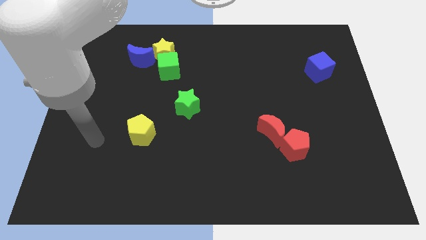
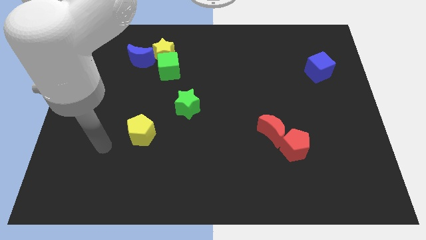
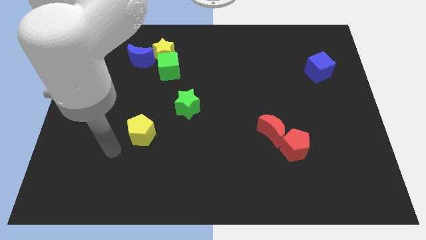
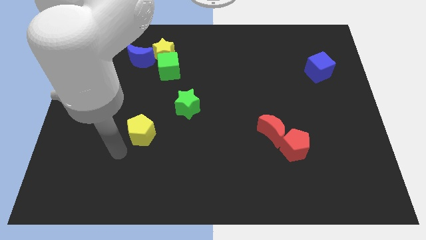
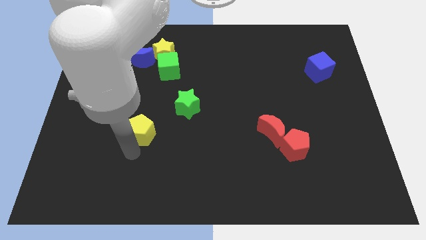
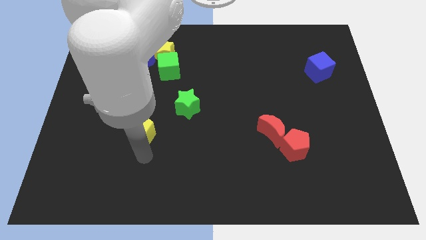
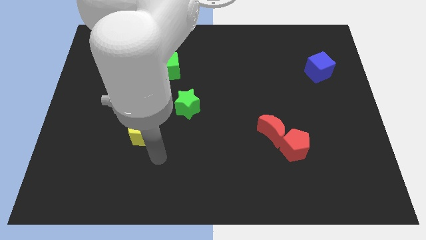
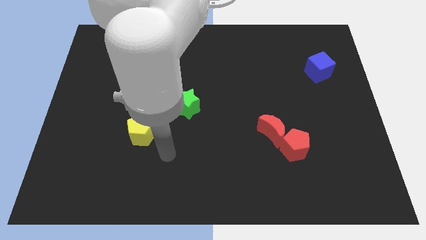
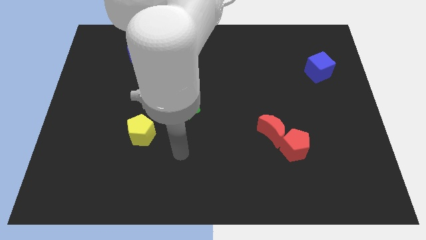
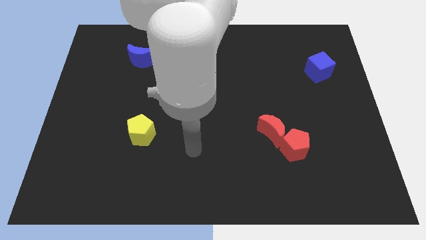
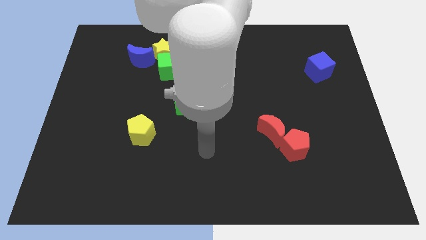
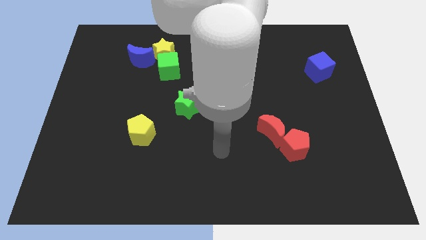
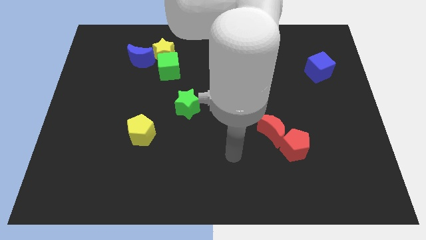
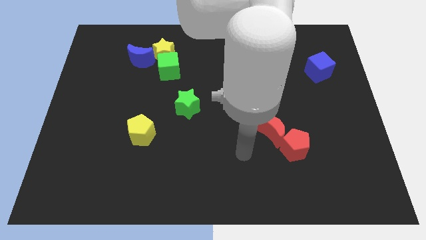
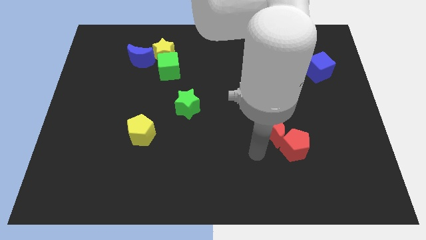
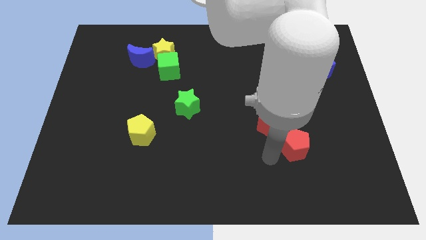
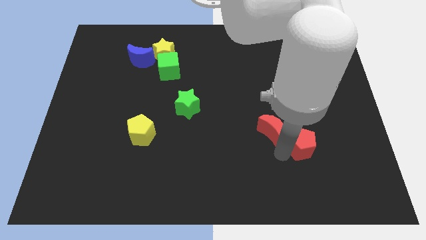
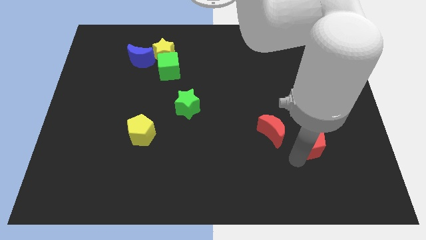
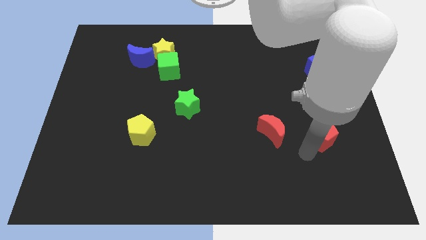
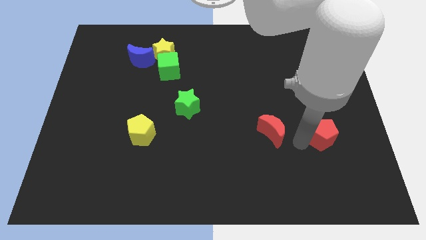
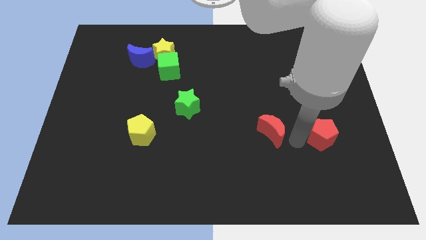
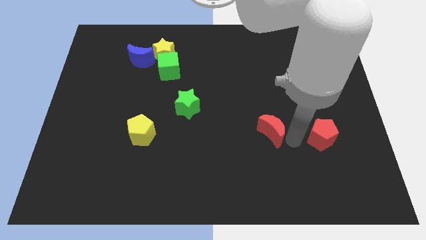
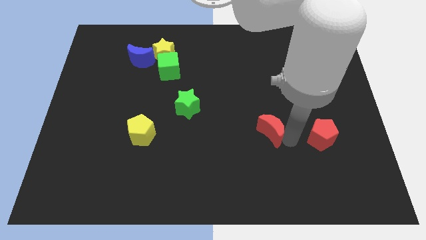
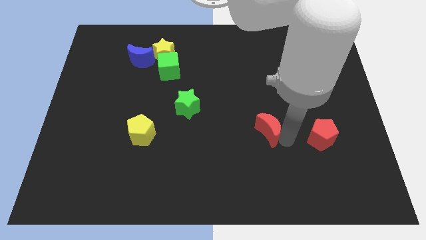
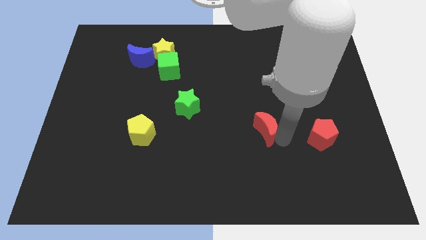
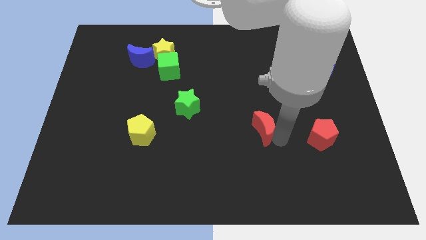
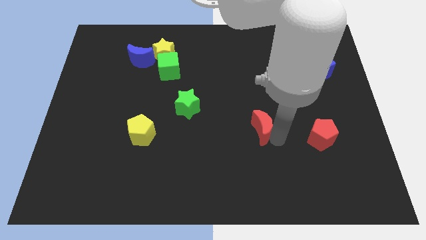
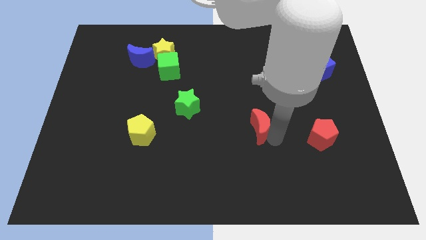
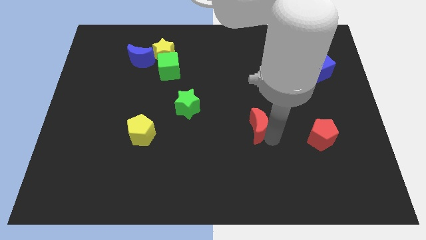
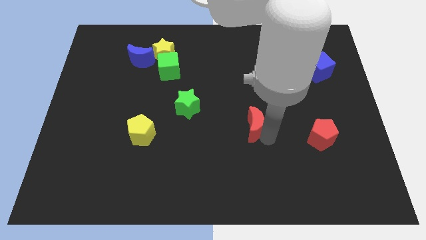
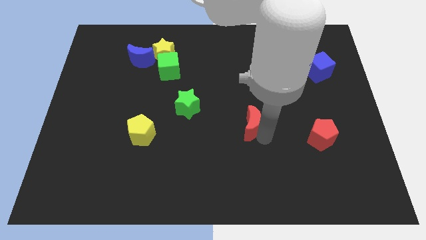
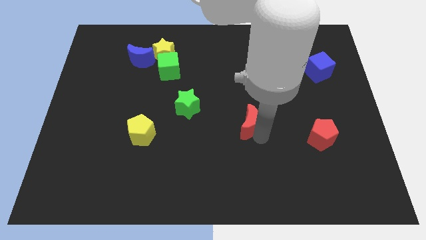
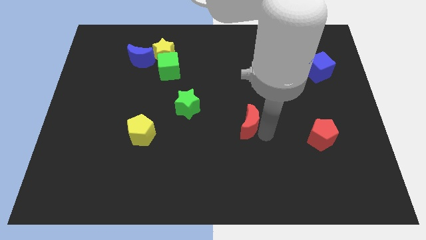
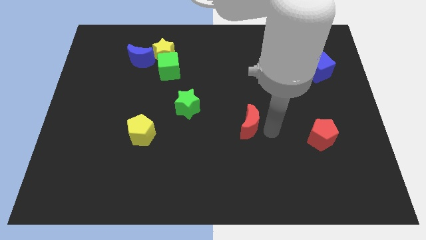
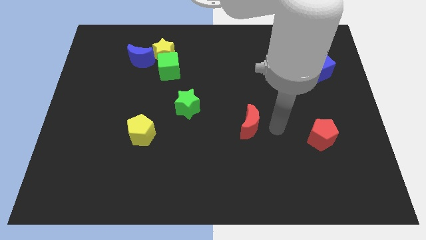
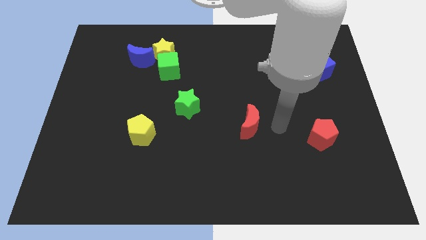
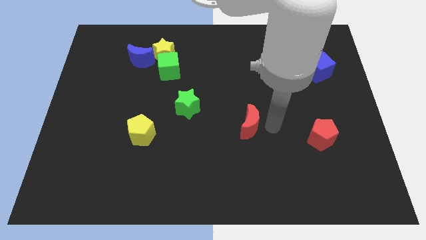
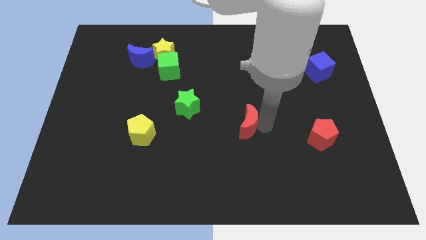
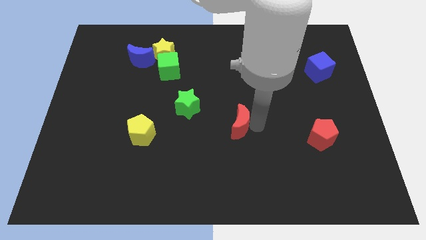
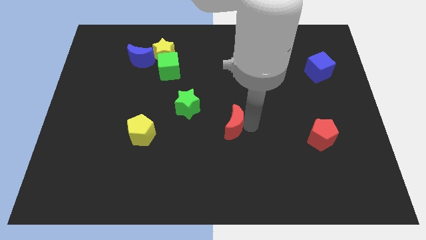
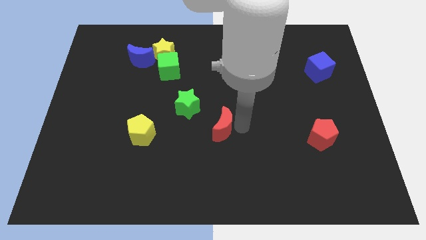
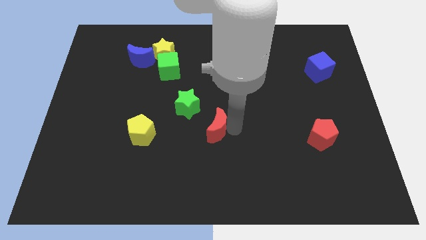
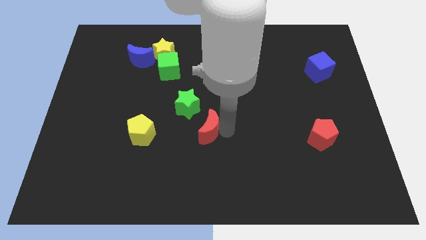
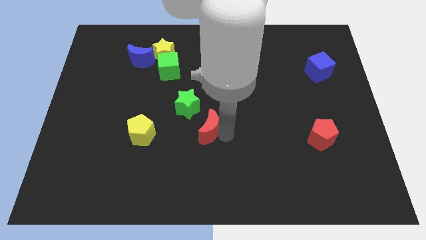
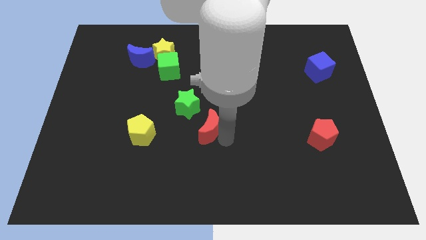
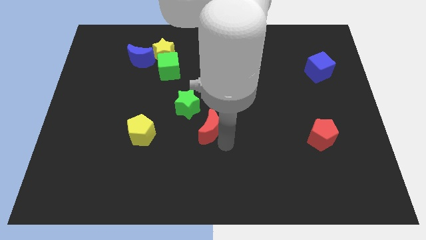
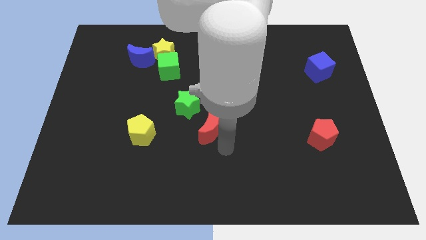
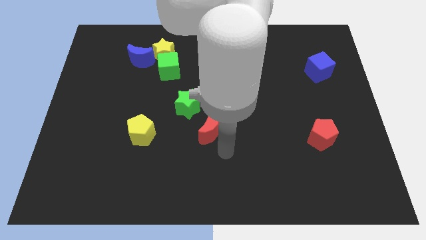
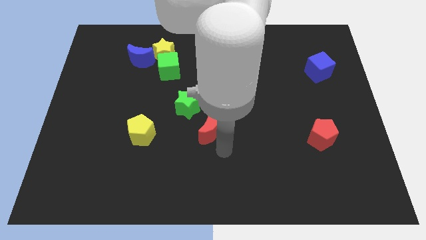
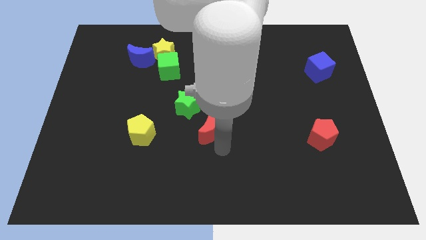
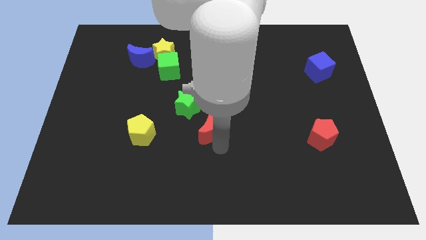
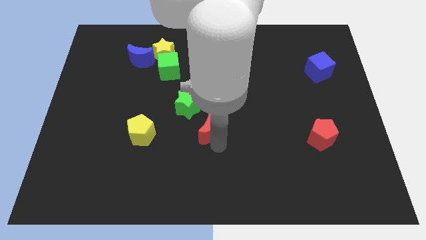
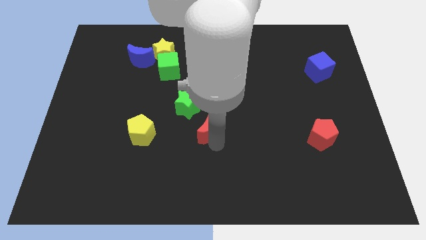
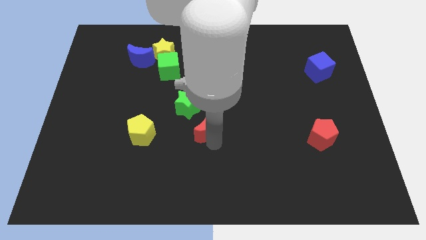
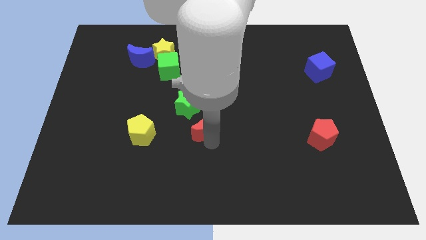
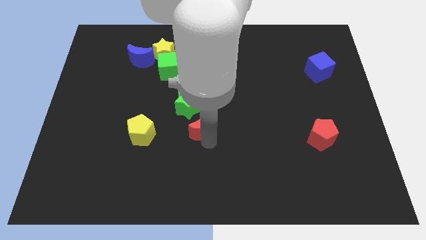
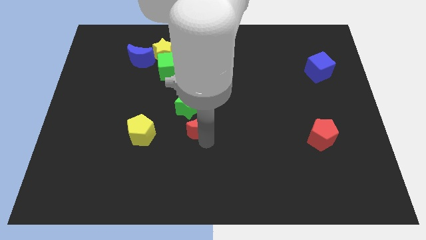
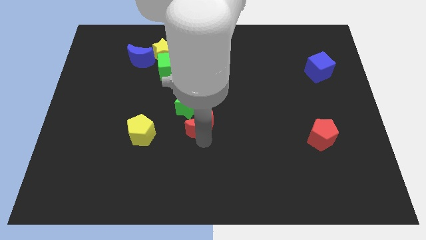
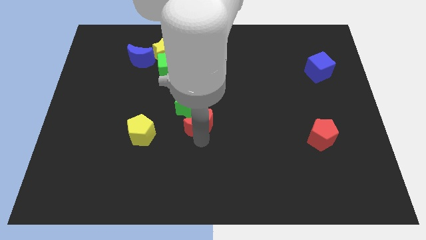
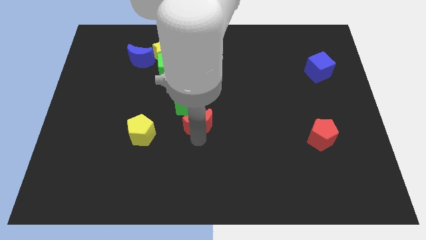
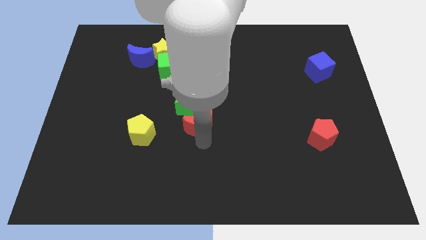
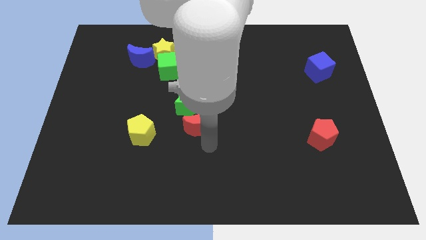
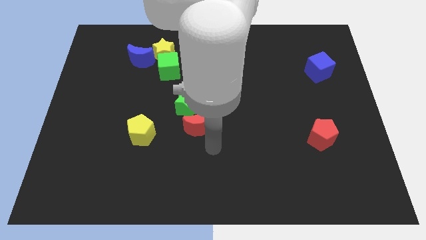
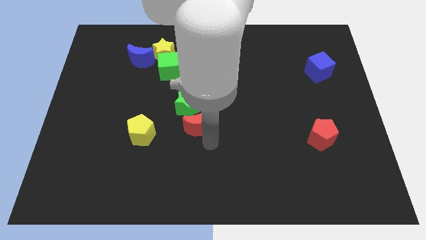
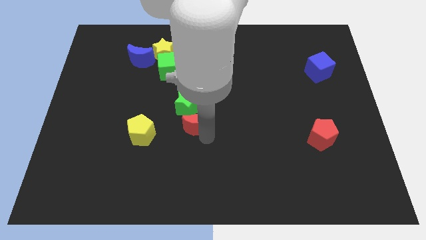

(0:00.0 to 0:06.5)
slide the red moon towards the green star
